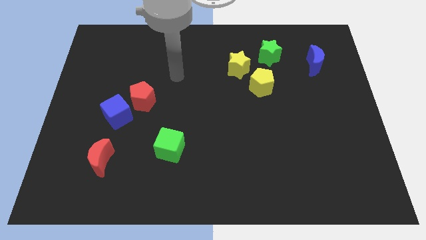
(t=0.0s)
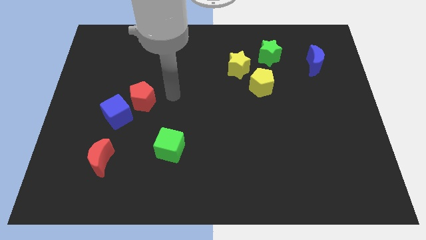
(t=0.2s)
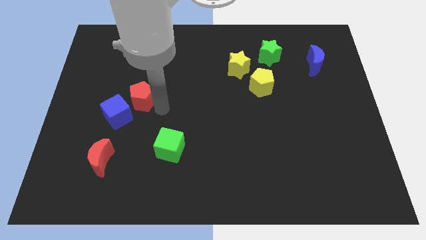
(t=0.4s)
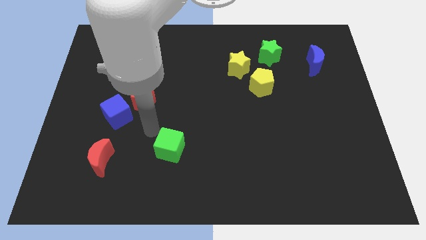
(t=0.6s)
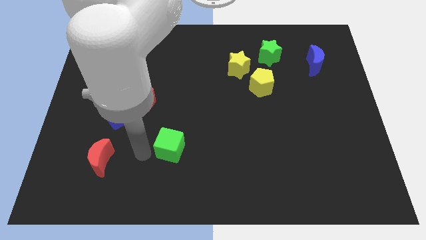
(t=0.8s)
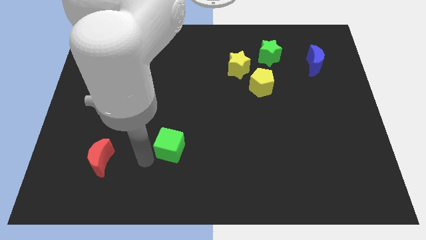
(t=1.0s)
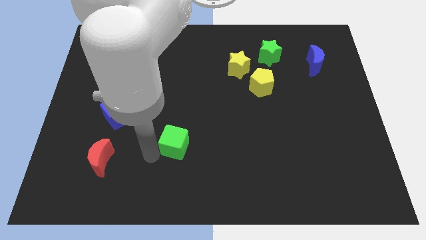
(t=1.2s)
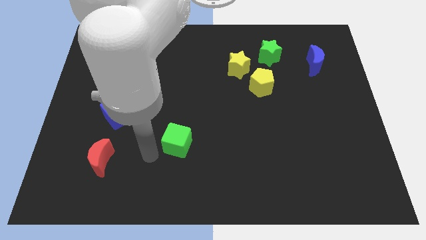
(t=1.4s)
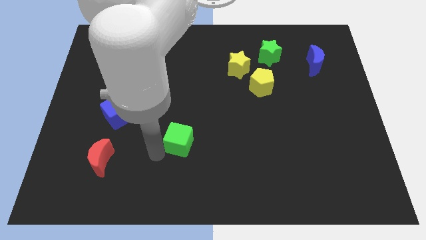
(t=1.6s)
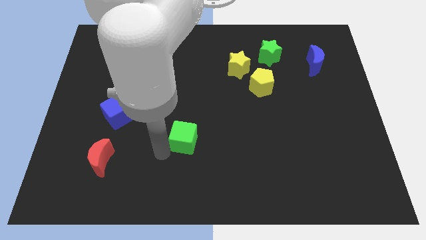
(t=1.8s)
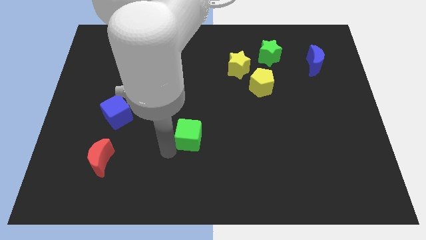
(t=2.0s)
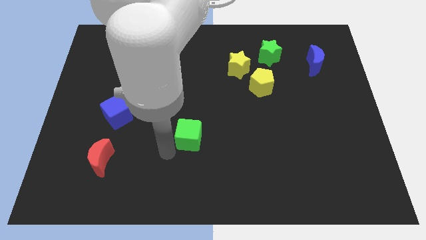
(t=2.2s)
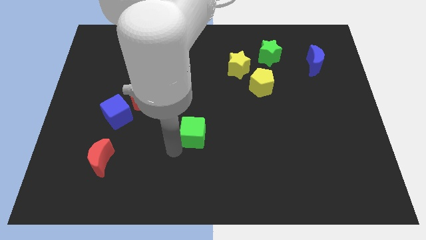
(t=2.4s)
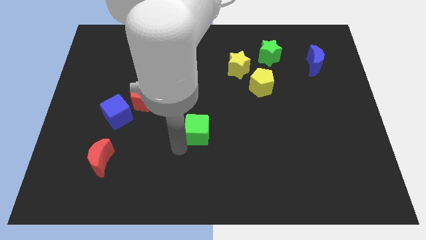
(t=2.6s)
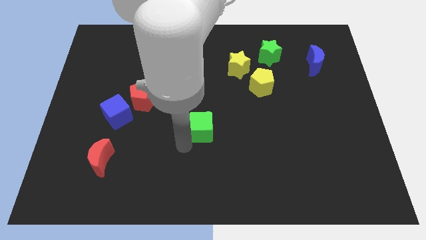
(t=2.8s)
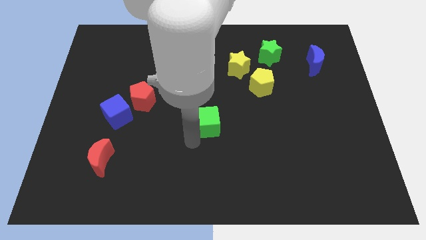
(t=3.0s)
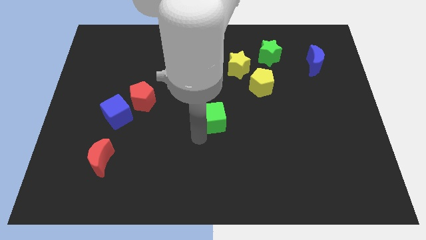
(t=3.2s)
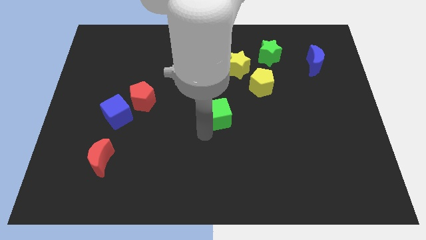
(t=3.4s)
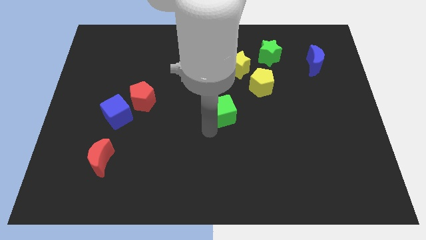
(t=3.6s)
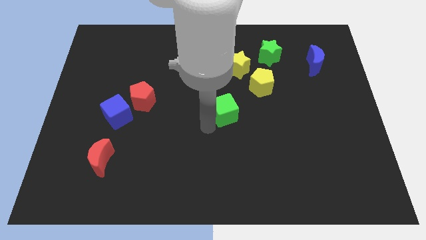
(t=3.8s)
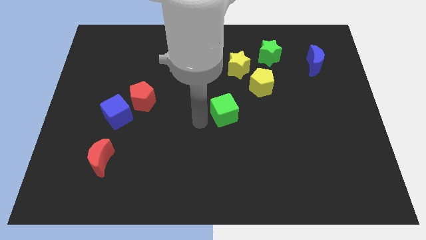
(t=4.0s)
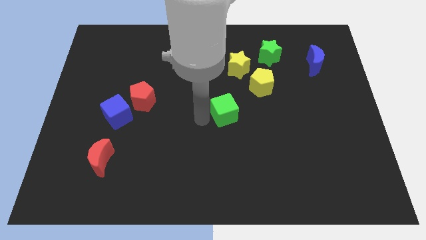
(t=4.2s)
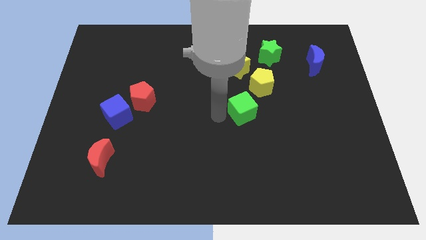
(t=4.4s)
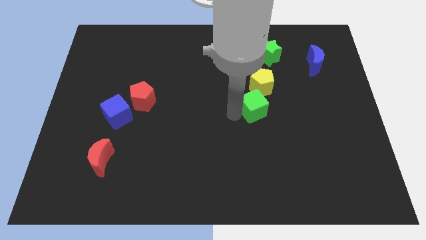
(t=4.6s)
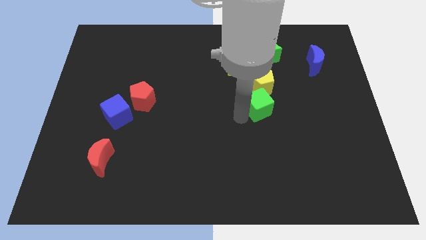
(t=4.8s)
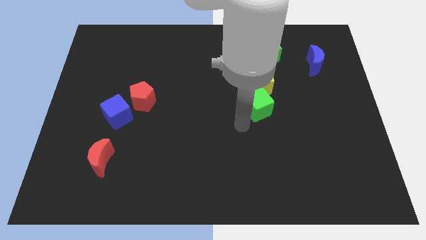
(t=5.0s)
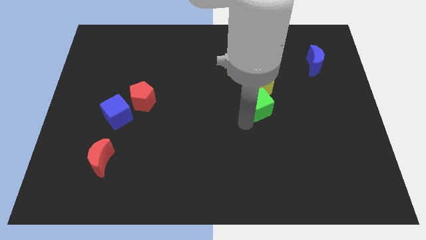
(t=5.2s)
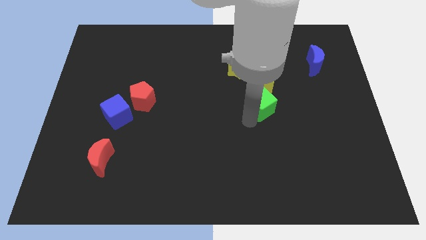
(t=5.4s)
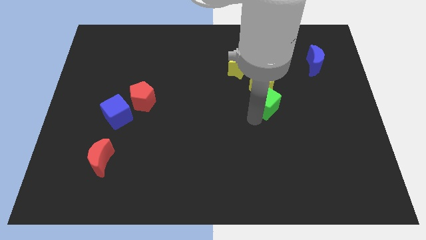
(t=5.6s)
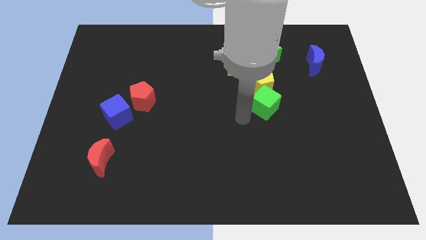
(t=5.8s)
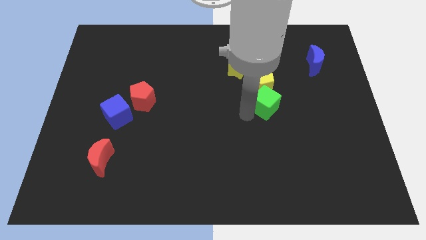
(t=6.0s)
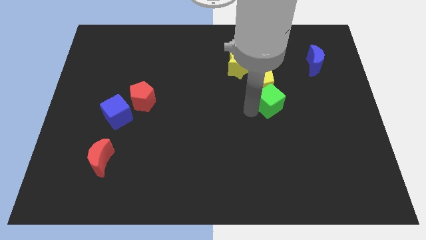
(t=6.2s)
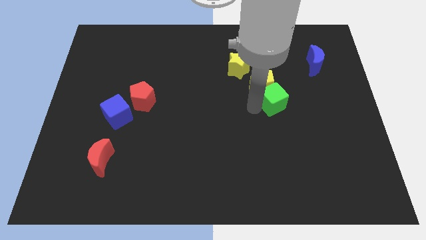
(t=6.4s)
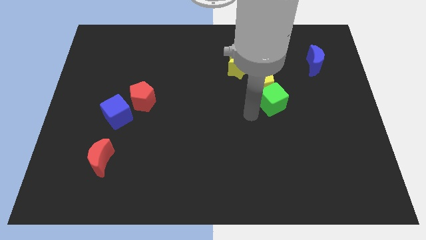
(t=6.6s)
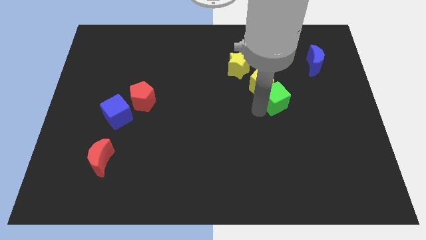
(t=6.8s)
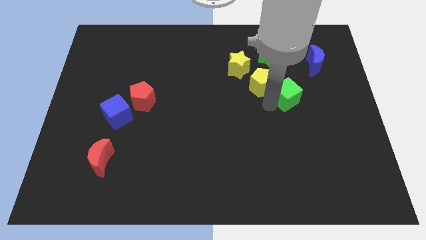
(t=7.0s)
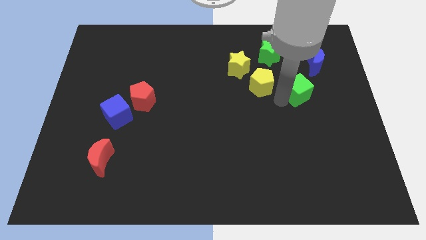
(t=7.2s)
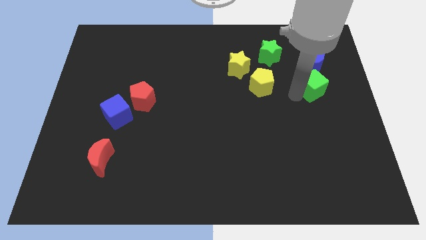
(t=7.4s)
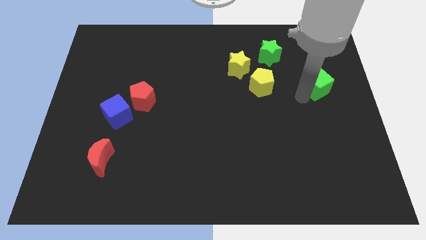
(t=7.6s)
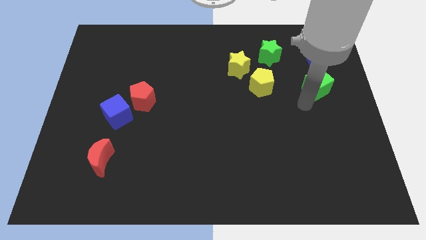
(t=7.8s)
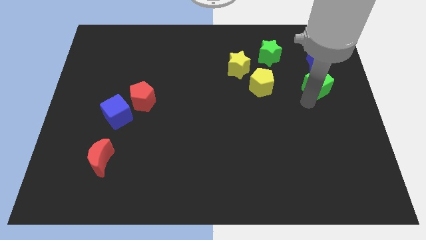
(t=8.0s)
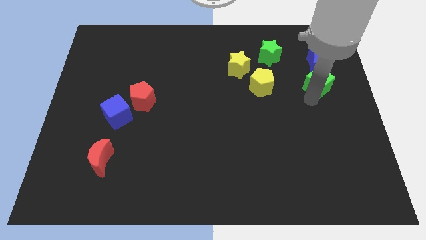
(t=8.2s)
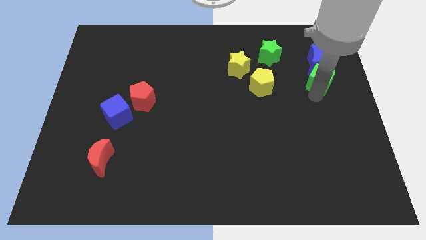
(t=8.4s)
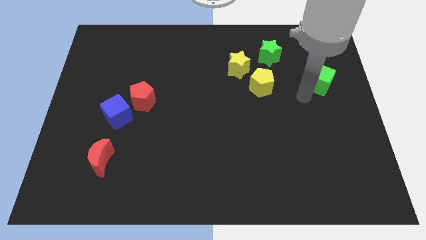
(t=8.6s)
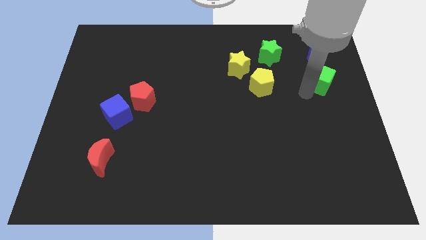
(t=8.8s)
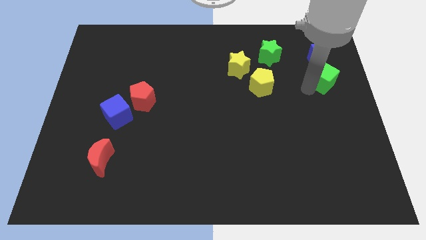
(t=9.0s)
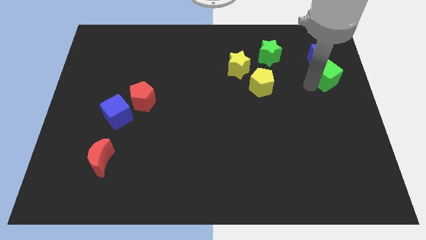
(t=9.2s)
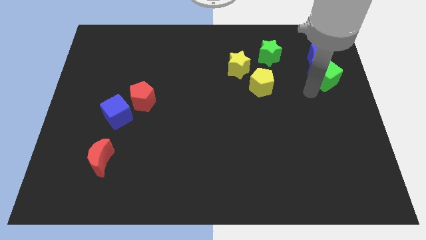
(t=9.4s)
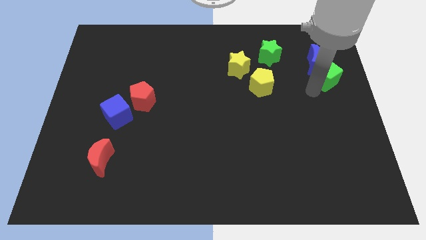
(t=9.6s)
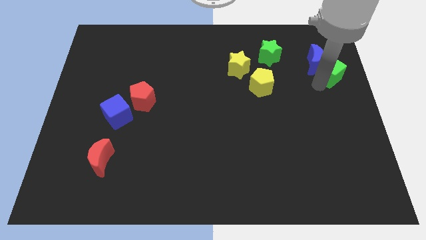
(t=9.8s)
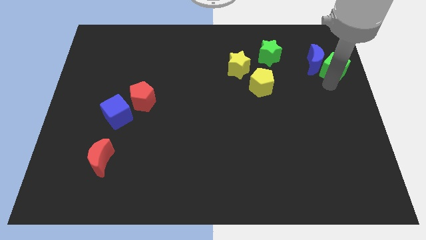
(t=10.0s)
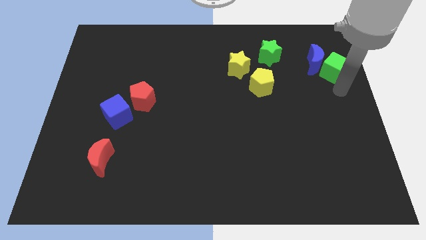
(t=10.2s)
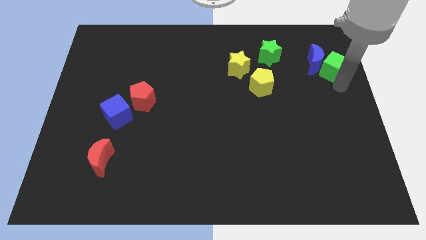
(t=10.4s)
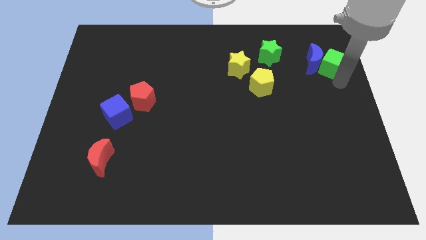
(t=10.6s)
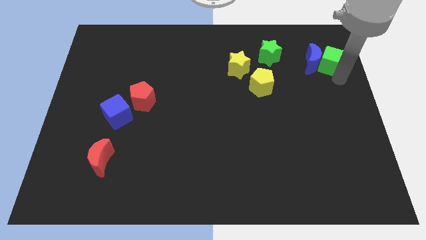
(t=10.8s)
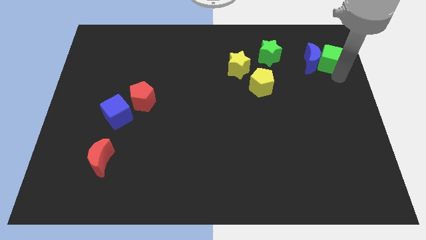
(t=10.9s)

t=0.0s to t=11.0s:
put the green cube just right of the green star

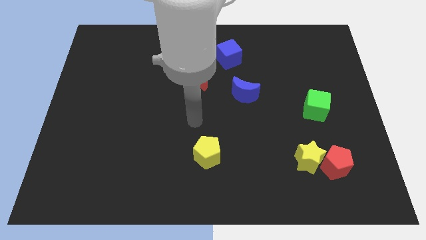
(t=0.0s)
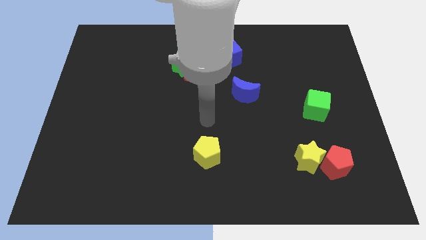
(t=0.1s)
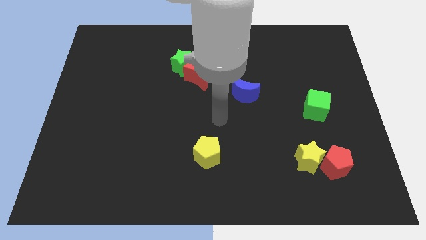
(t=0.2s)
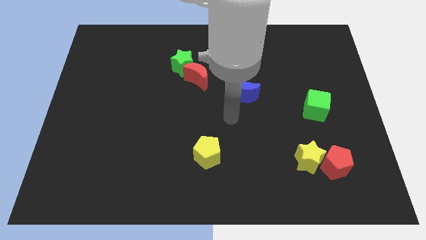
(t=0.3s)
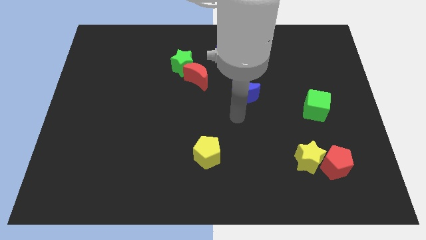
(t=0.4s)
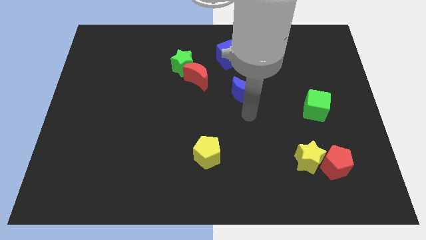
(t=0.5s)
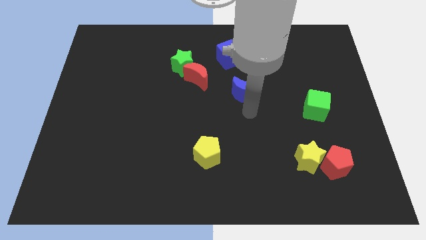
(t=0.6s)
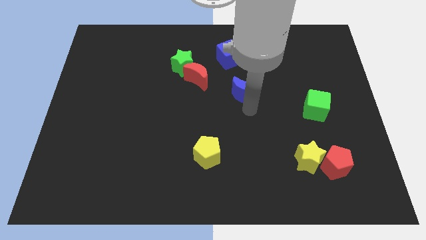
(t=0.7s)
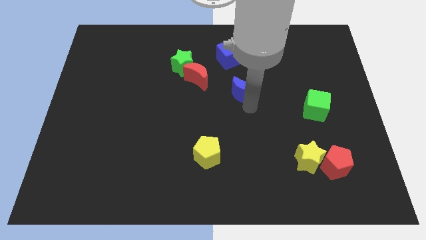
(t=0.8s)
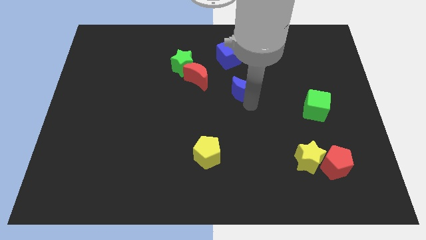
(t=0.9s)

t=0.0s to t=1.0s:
put the blue moon just right of the red moon
